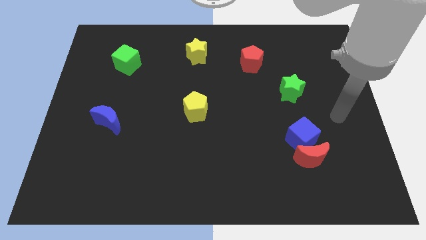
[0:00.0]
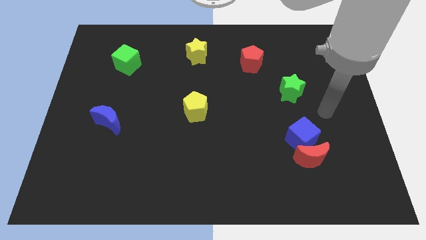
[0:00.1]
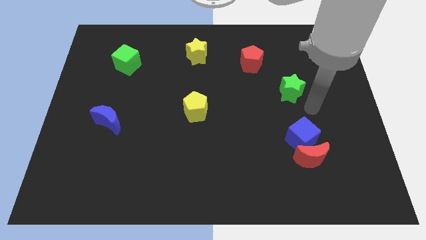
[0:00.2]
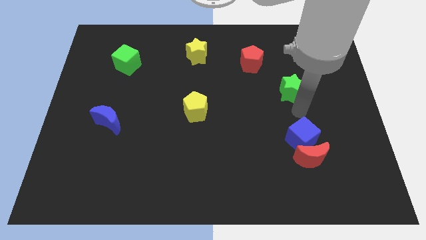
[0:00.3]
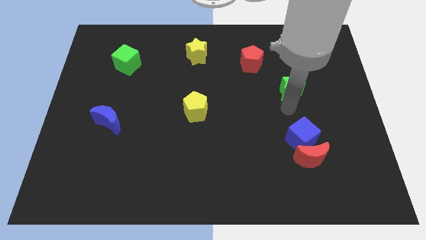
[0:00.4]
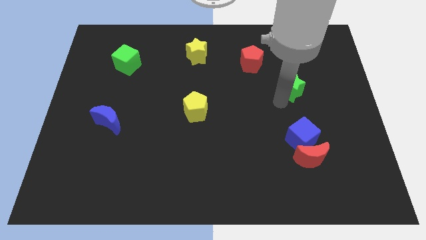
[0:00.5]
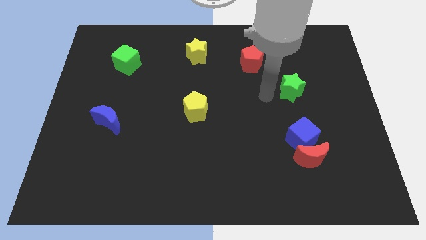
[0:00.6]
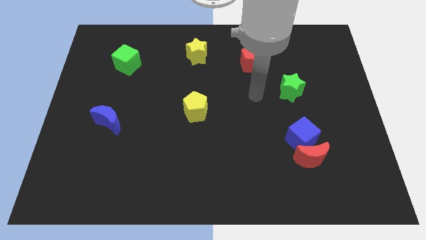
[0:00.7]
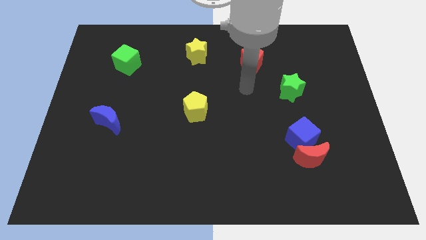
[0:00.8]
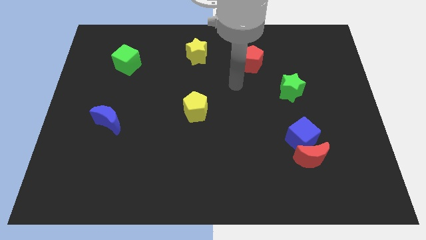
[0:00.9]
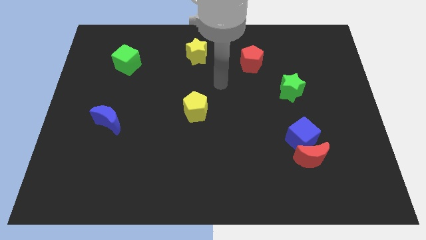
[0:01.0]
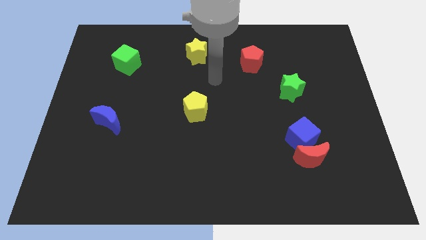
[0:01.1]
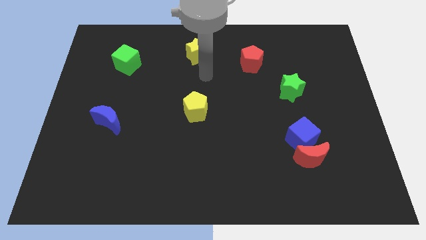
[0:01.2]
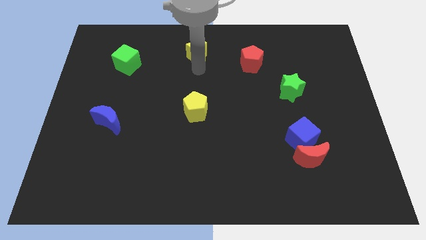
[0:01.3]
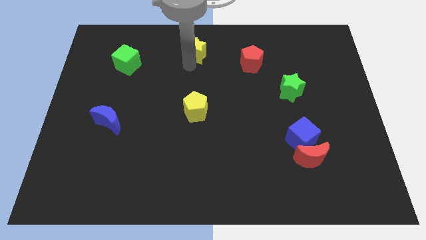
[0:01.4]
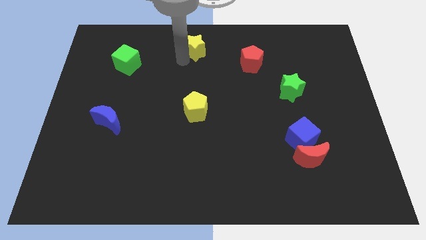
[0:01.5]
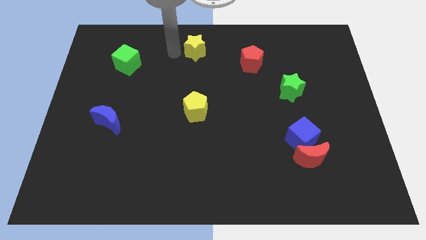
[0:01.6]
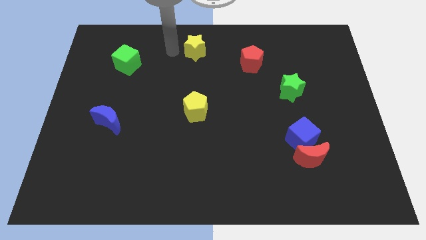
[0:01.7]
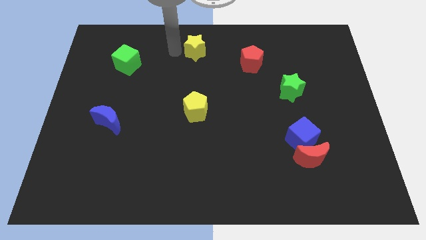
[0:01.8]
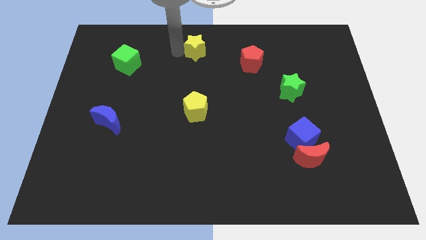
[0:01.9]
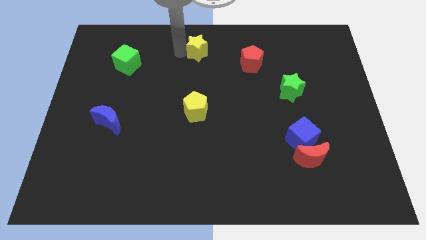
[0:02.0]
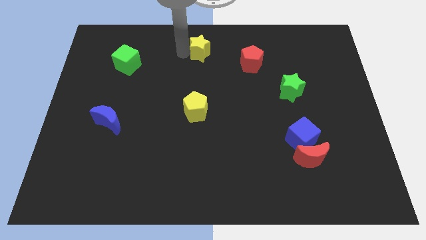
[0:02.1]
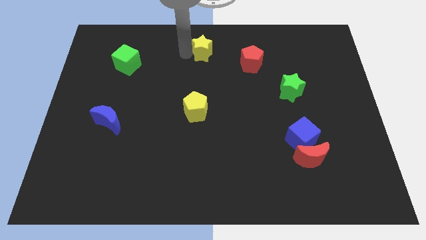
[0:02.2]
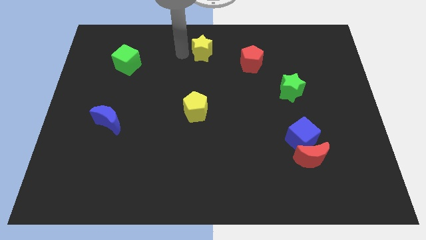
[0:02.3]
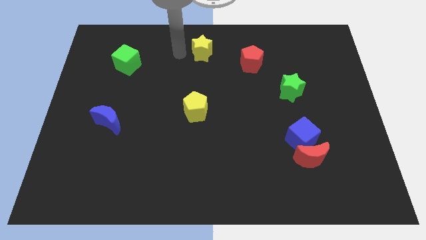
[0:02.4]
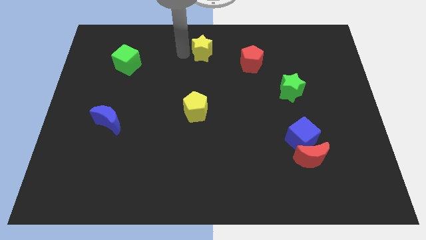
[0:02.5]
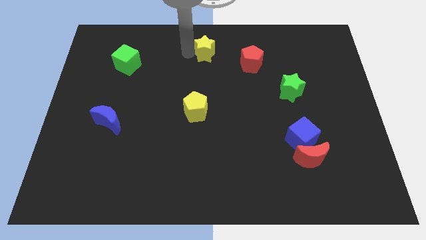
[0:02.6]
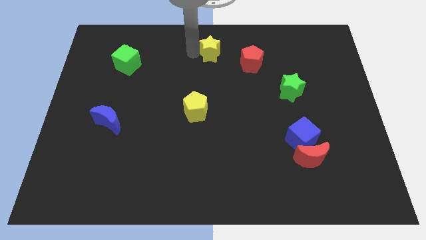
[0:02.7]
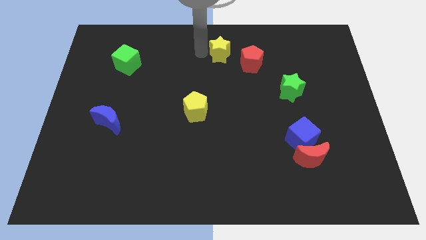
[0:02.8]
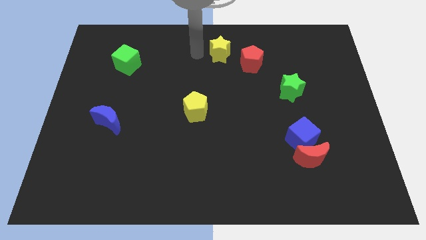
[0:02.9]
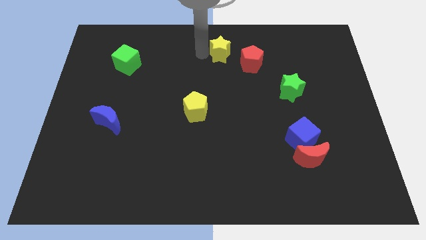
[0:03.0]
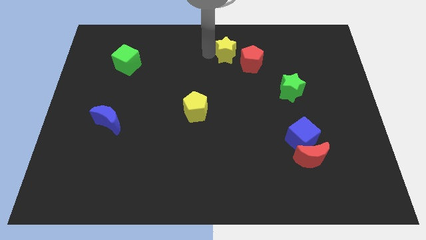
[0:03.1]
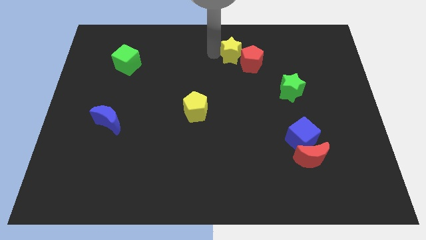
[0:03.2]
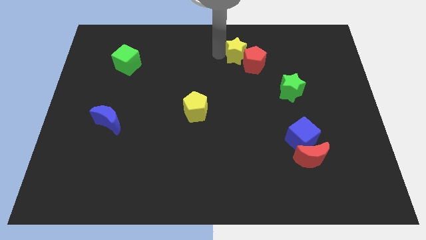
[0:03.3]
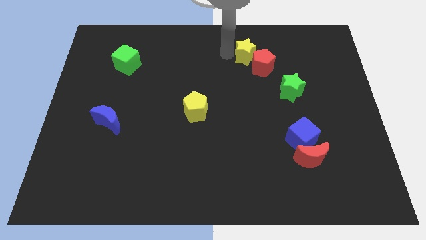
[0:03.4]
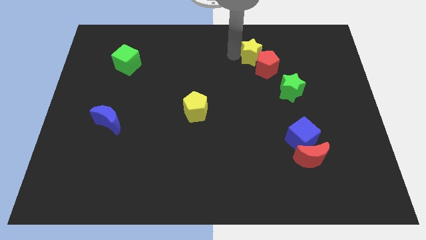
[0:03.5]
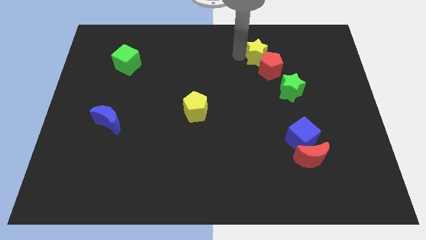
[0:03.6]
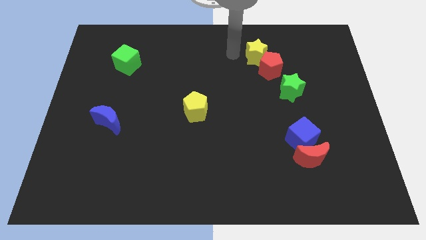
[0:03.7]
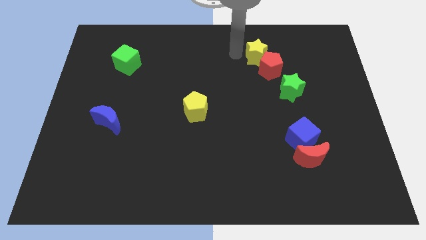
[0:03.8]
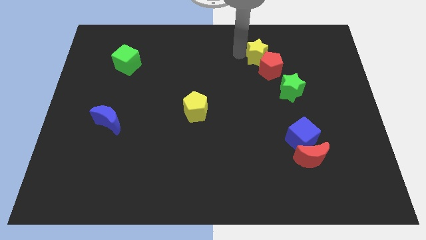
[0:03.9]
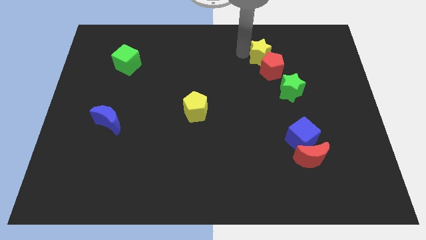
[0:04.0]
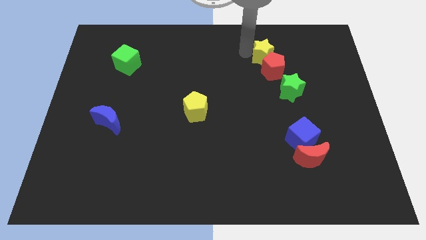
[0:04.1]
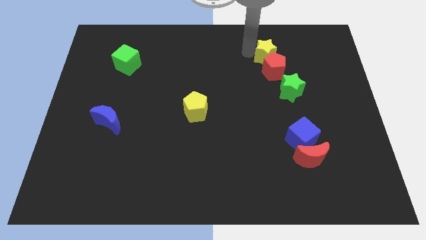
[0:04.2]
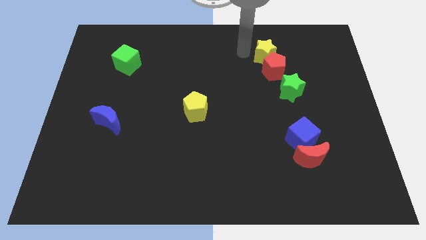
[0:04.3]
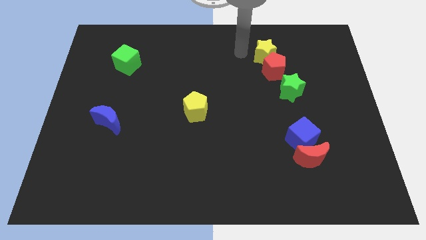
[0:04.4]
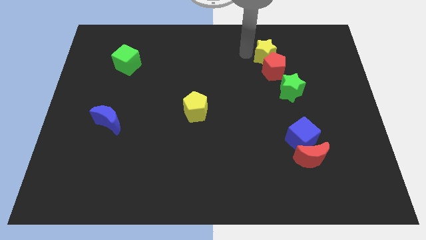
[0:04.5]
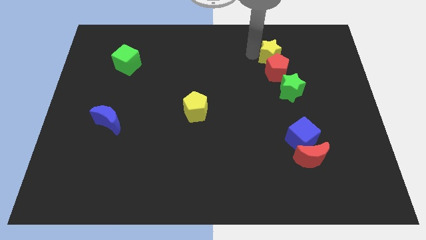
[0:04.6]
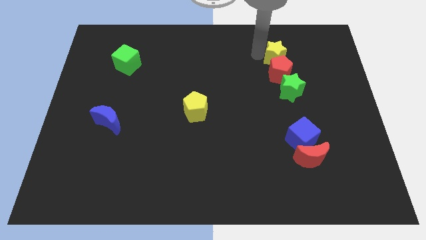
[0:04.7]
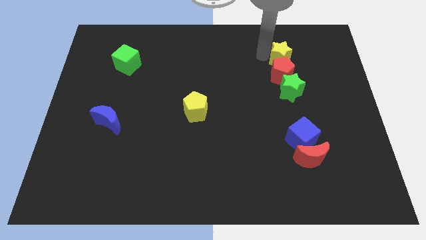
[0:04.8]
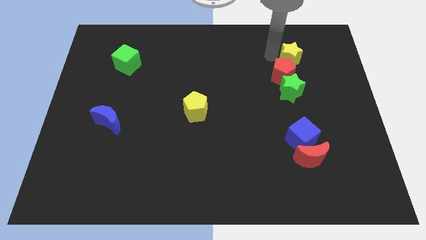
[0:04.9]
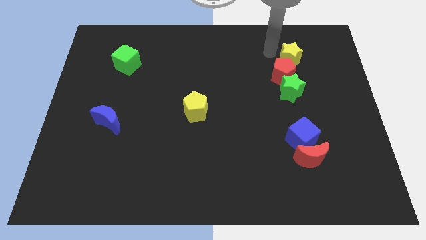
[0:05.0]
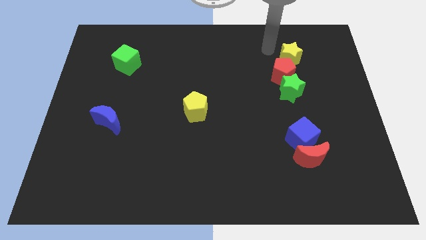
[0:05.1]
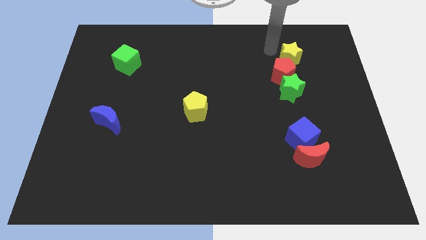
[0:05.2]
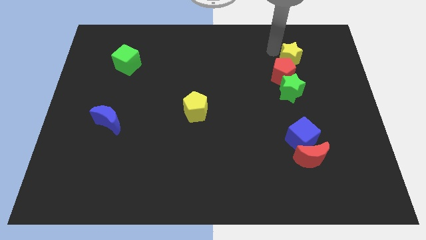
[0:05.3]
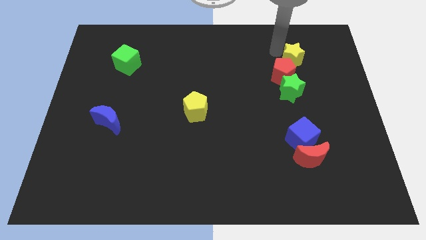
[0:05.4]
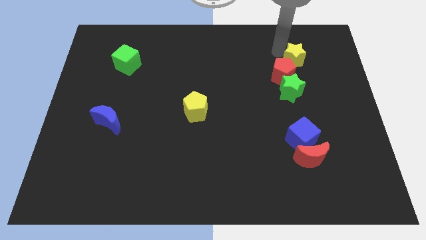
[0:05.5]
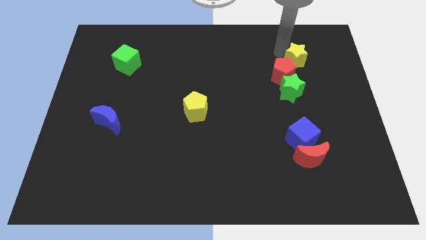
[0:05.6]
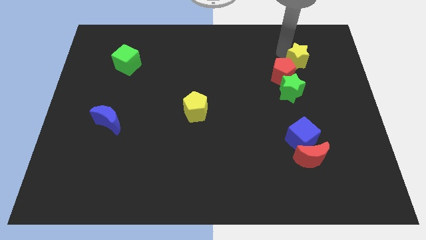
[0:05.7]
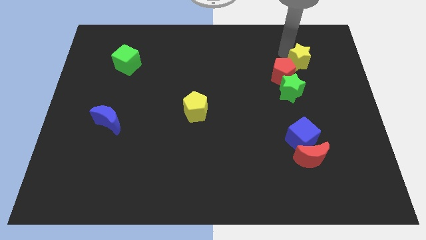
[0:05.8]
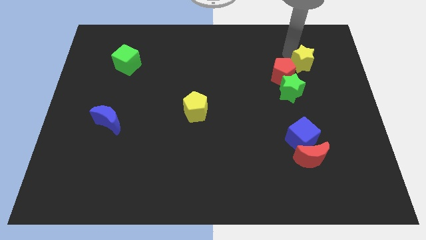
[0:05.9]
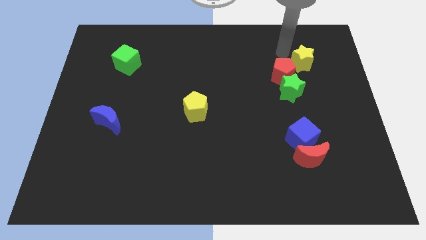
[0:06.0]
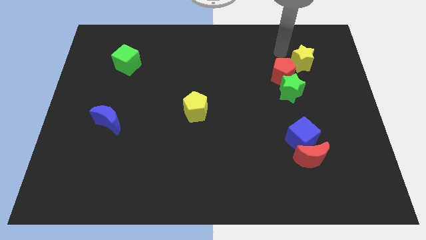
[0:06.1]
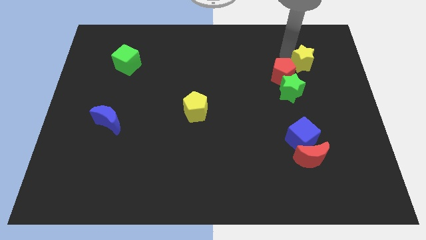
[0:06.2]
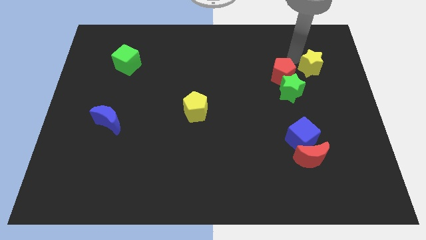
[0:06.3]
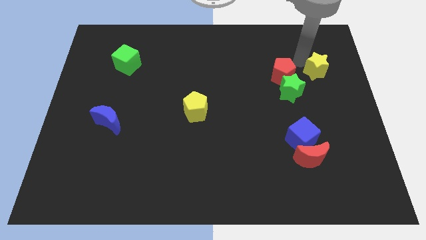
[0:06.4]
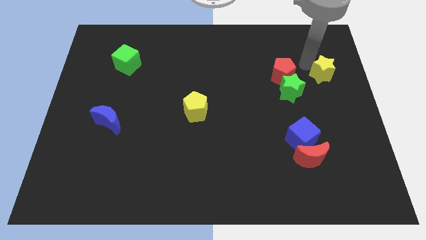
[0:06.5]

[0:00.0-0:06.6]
put the yellow star to the right side
